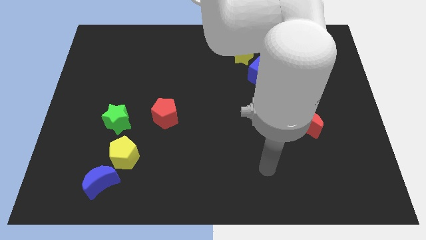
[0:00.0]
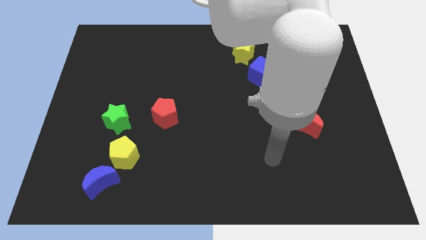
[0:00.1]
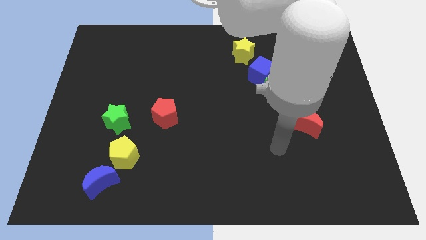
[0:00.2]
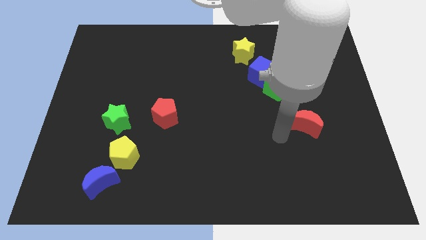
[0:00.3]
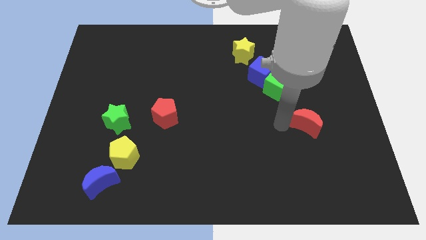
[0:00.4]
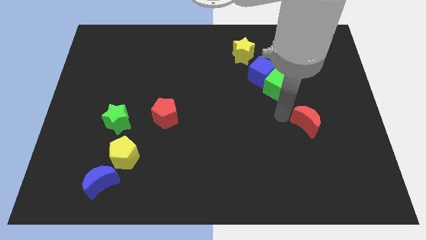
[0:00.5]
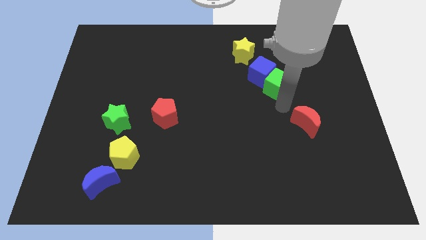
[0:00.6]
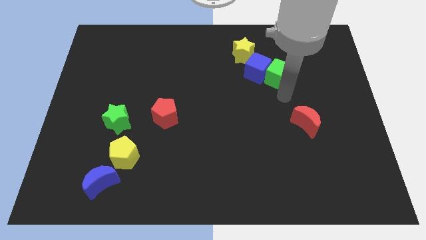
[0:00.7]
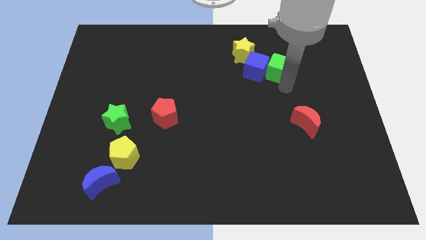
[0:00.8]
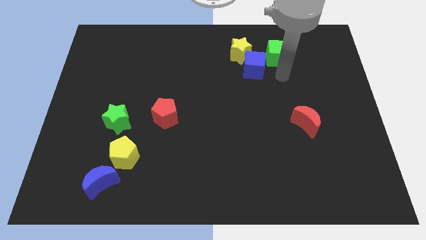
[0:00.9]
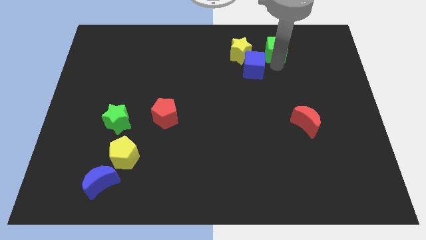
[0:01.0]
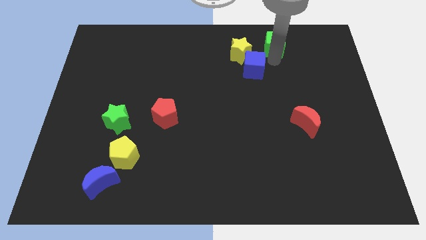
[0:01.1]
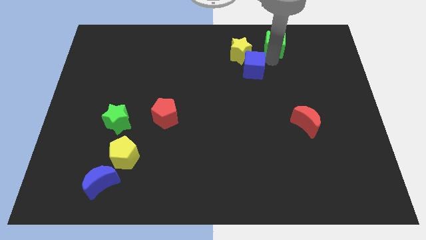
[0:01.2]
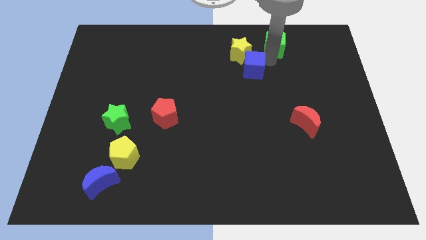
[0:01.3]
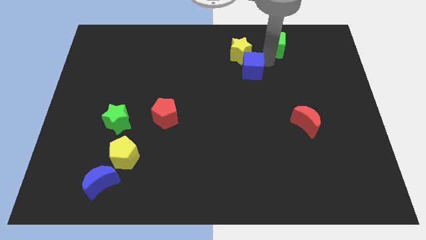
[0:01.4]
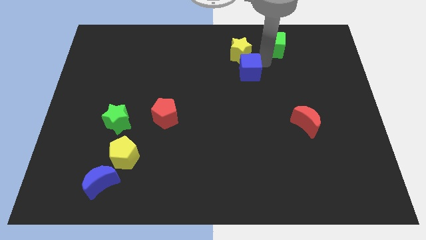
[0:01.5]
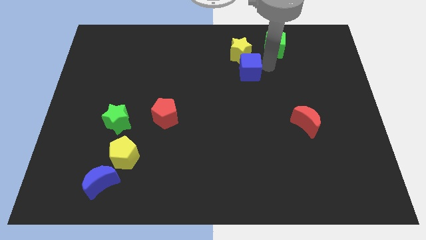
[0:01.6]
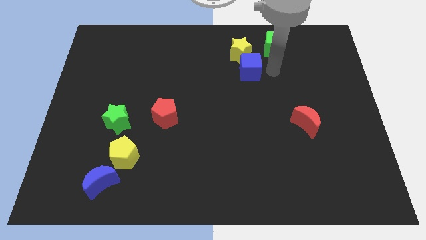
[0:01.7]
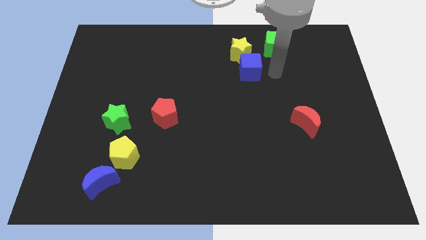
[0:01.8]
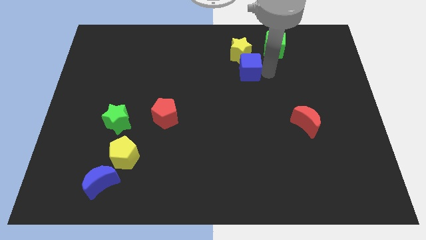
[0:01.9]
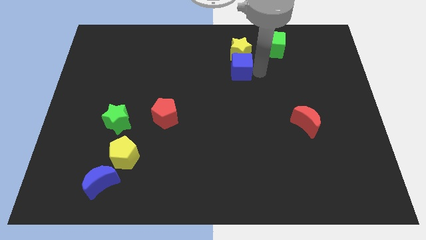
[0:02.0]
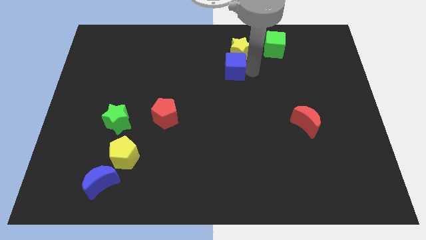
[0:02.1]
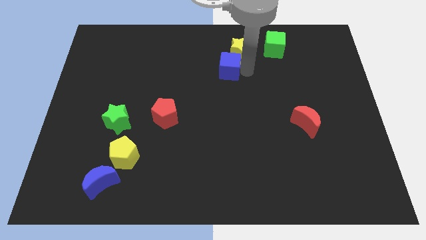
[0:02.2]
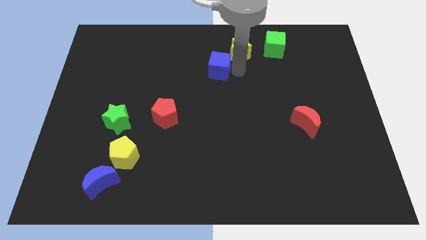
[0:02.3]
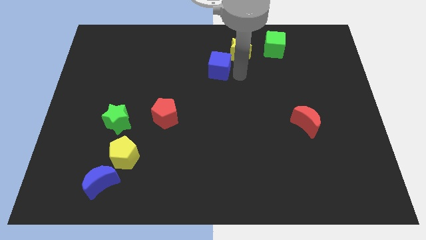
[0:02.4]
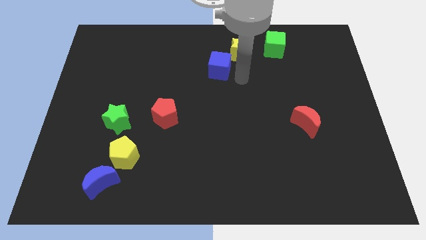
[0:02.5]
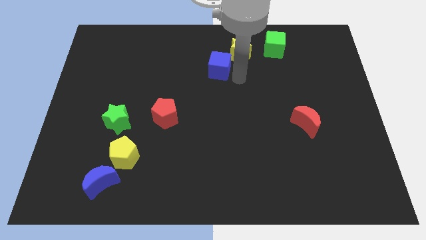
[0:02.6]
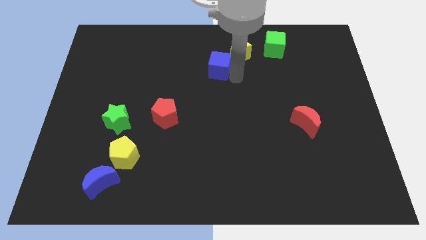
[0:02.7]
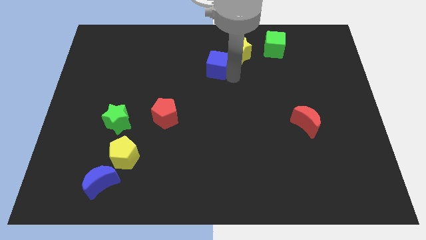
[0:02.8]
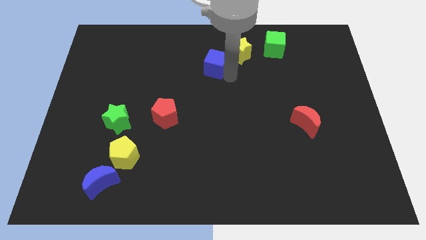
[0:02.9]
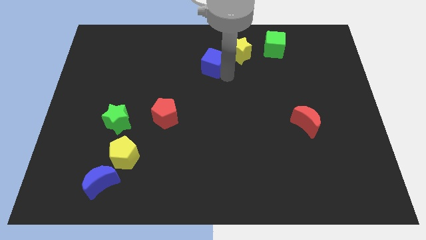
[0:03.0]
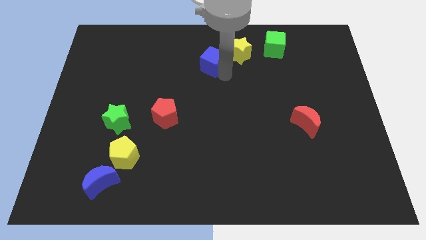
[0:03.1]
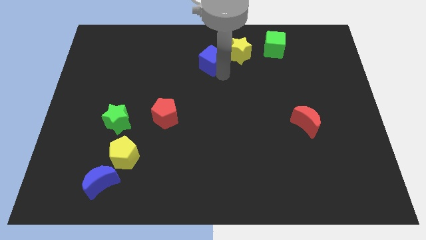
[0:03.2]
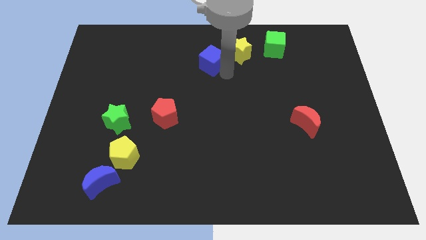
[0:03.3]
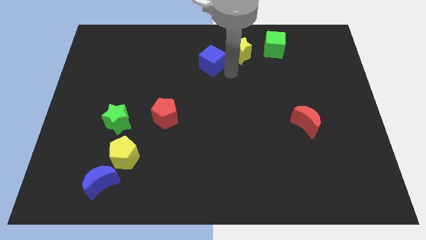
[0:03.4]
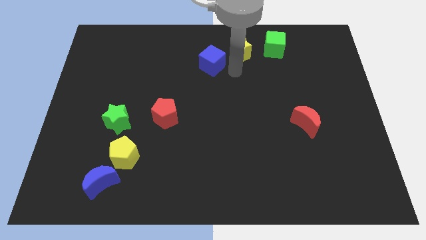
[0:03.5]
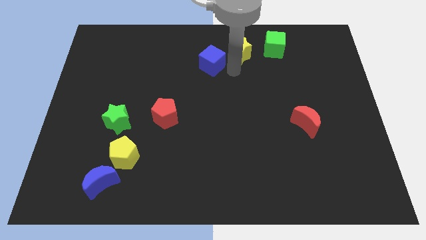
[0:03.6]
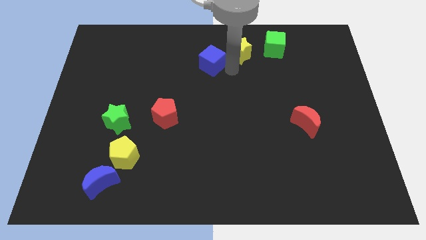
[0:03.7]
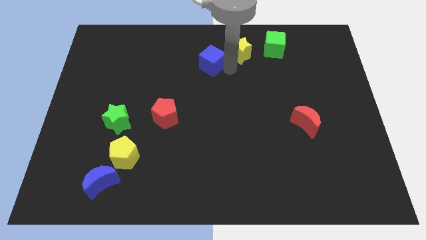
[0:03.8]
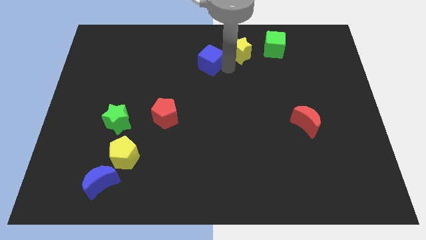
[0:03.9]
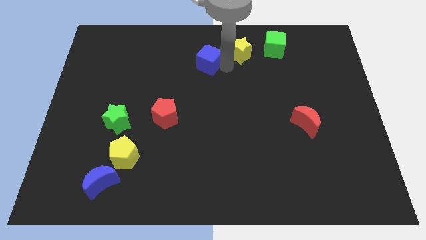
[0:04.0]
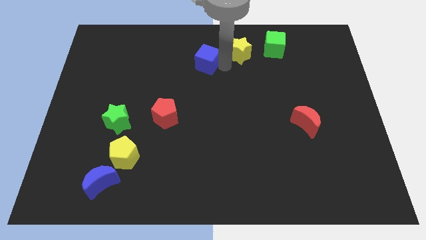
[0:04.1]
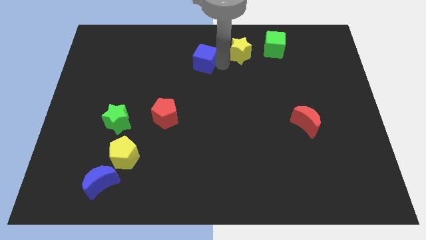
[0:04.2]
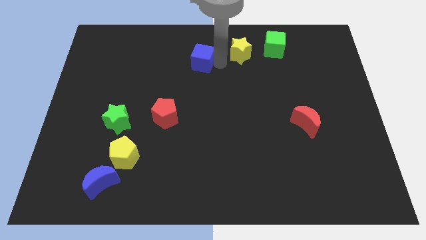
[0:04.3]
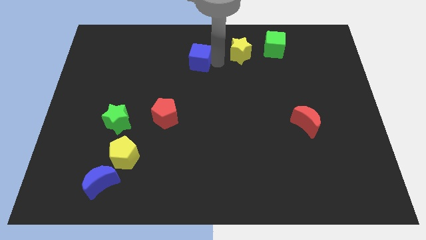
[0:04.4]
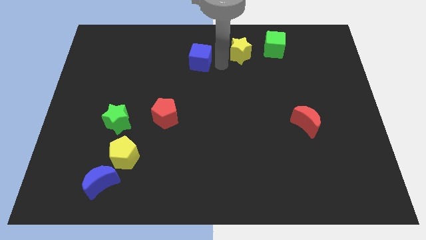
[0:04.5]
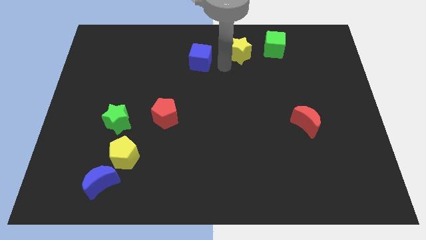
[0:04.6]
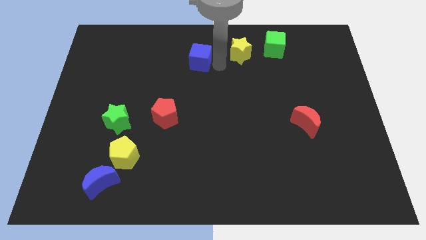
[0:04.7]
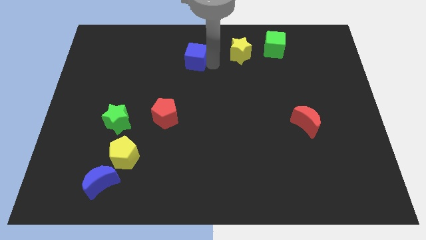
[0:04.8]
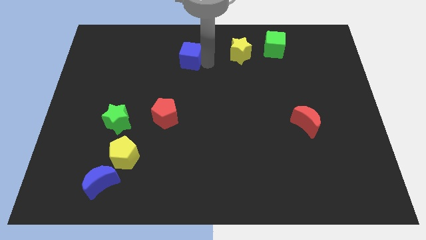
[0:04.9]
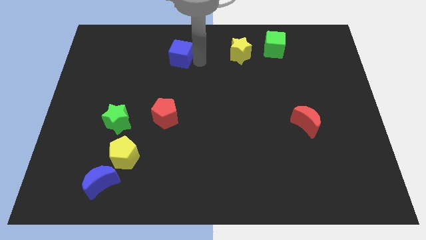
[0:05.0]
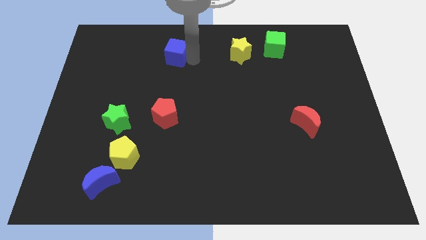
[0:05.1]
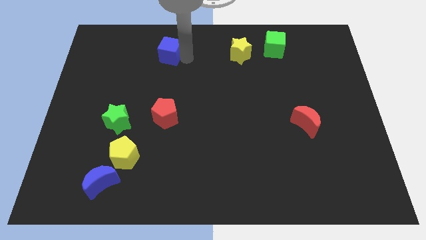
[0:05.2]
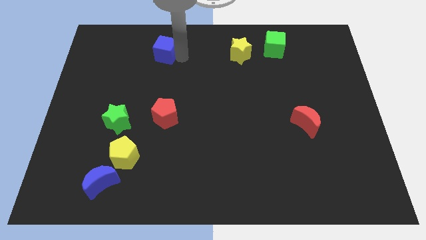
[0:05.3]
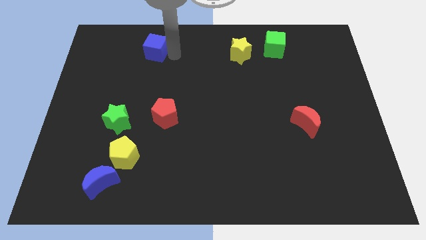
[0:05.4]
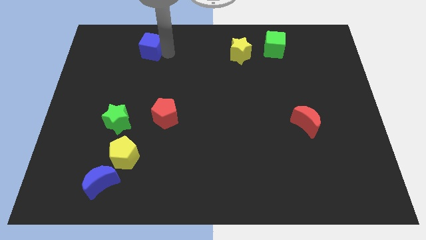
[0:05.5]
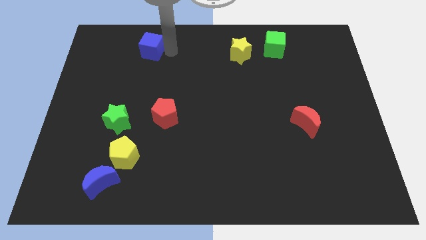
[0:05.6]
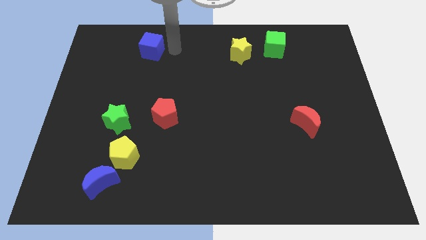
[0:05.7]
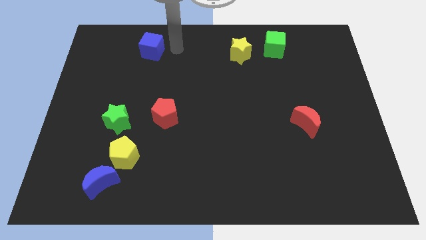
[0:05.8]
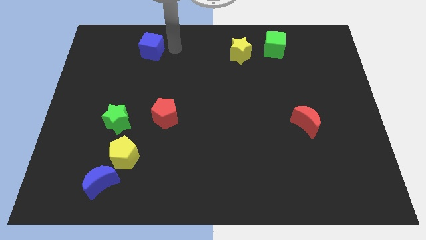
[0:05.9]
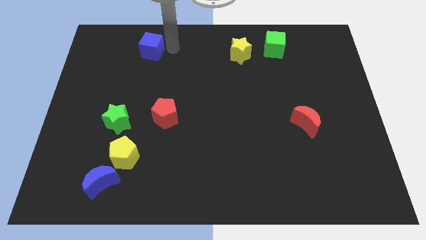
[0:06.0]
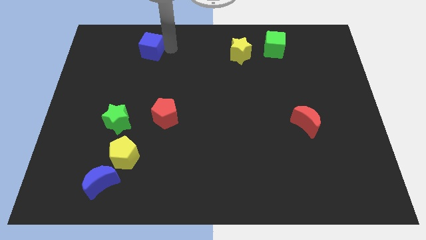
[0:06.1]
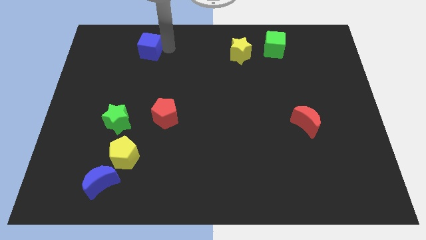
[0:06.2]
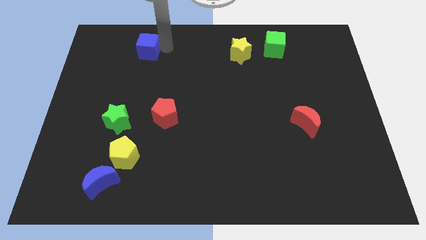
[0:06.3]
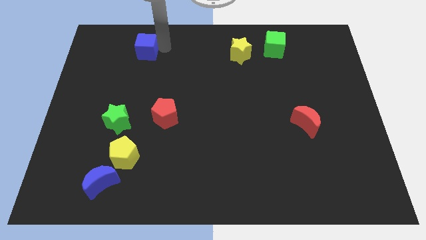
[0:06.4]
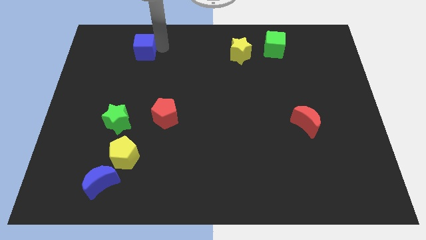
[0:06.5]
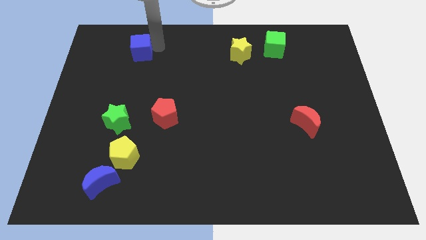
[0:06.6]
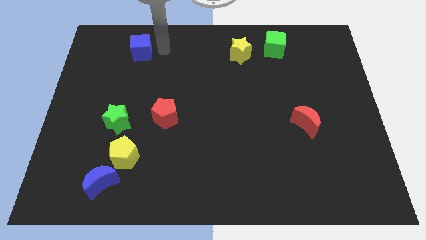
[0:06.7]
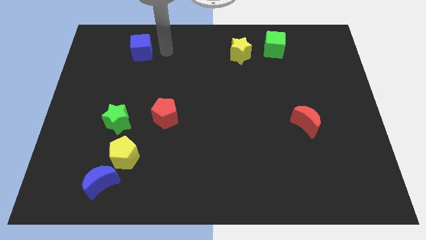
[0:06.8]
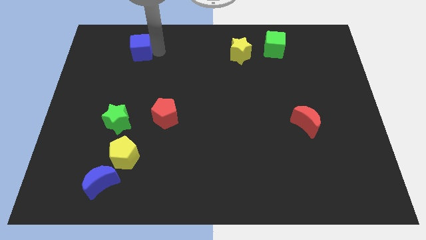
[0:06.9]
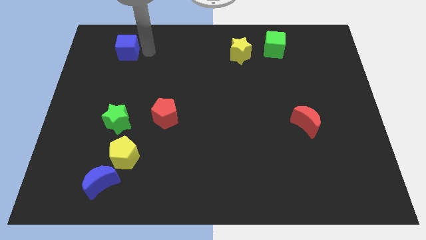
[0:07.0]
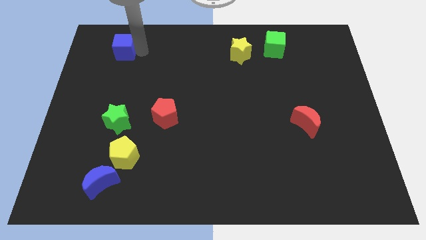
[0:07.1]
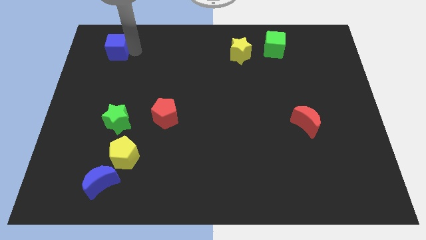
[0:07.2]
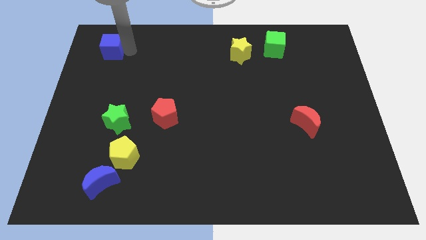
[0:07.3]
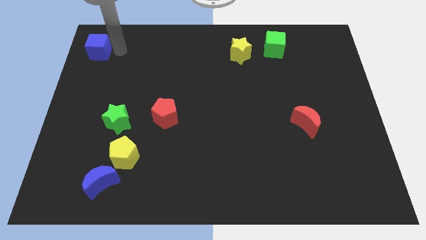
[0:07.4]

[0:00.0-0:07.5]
move the blue cube to the top left
